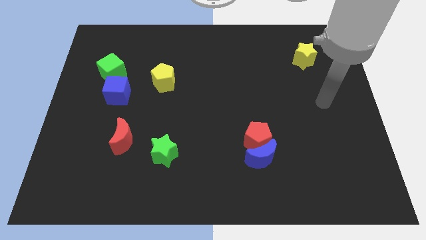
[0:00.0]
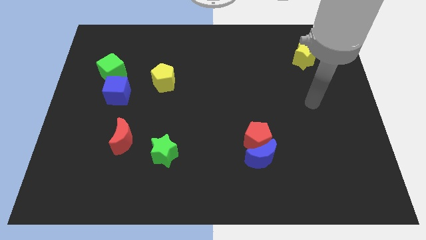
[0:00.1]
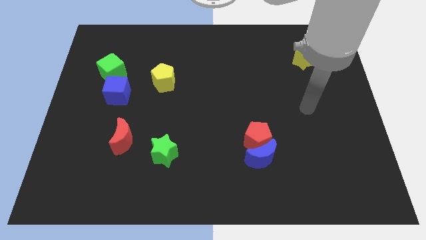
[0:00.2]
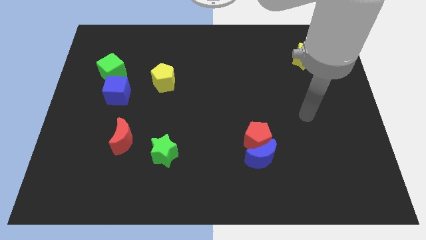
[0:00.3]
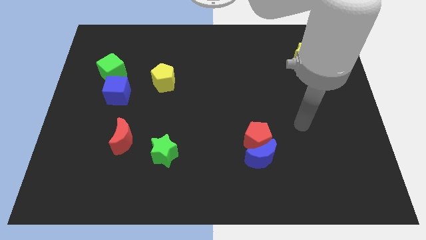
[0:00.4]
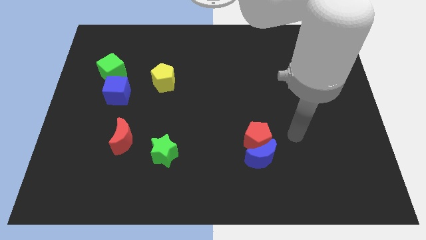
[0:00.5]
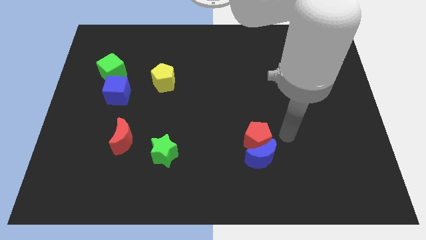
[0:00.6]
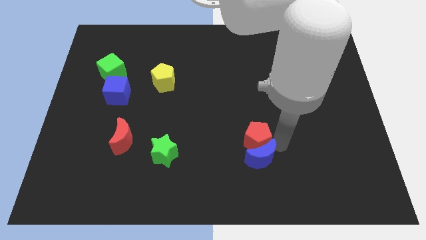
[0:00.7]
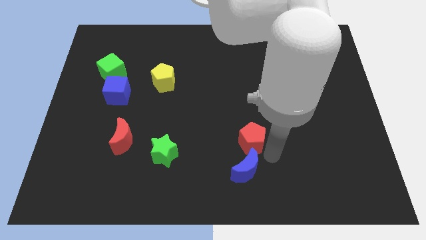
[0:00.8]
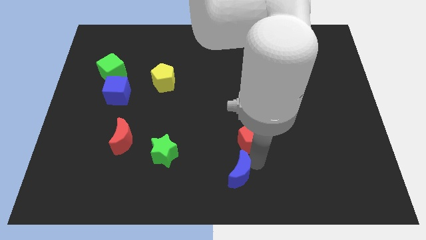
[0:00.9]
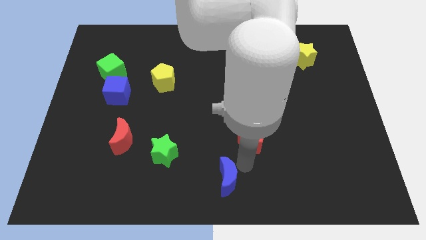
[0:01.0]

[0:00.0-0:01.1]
pull the red pentagon apart from the blue moon

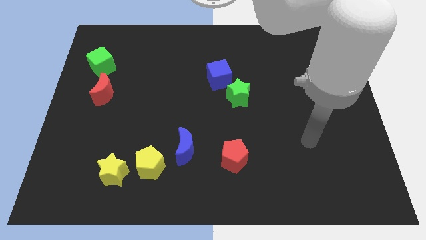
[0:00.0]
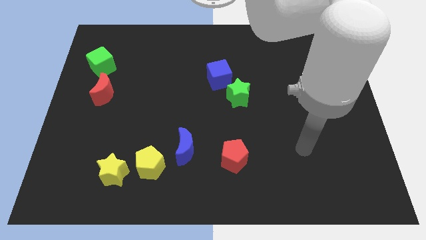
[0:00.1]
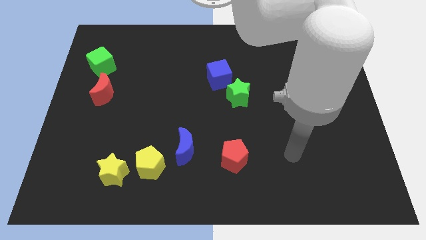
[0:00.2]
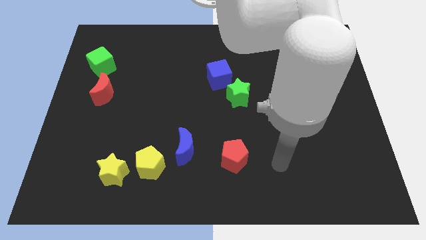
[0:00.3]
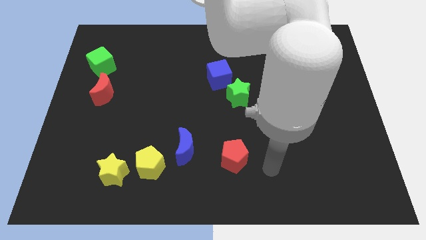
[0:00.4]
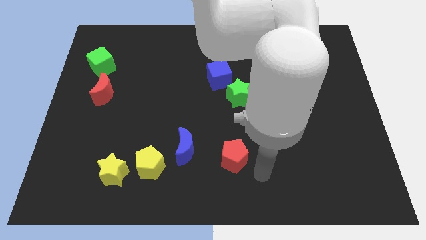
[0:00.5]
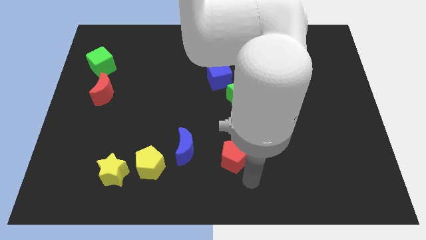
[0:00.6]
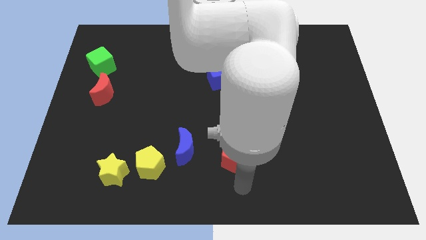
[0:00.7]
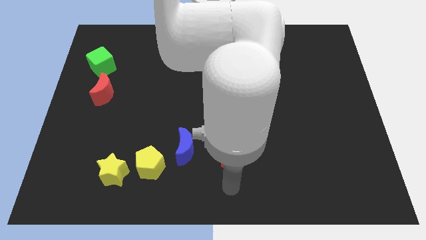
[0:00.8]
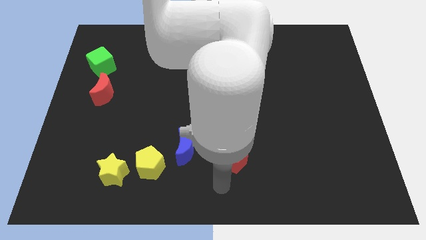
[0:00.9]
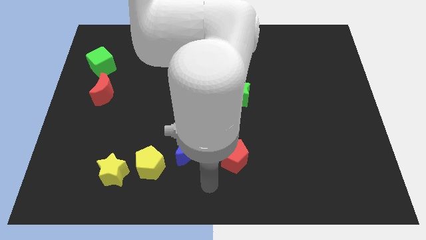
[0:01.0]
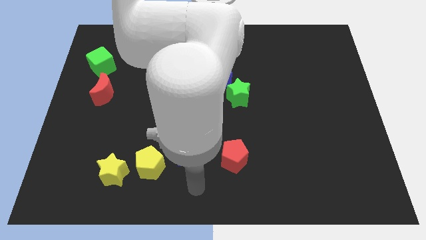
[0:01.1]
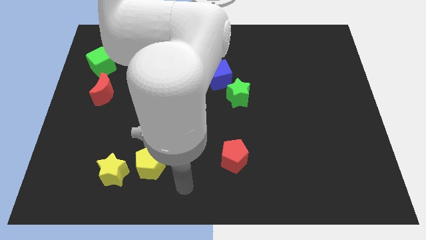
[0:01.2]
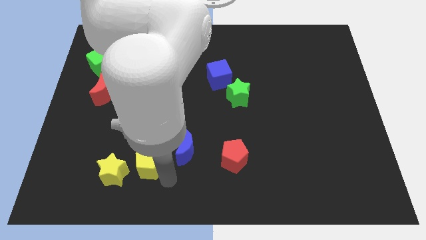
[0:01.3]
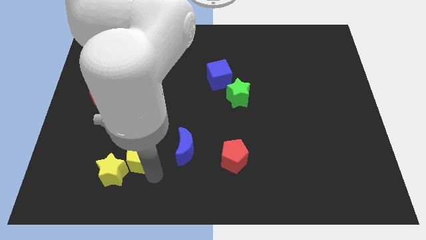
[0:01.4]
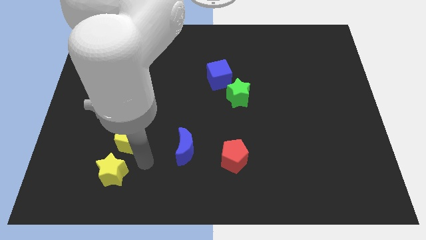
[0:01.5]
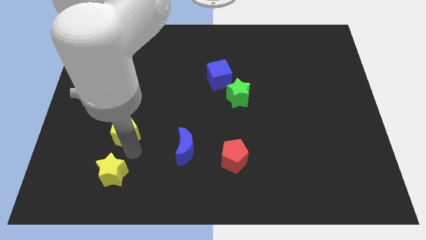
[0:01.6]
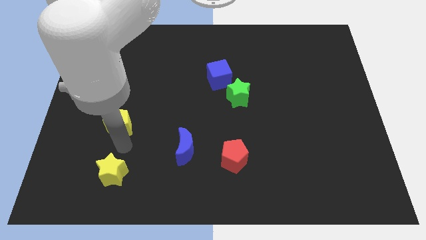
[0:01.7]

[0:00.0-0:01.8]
move the yellow star away from the yellow pentagon

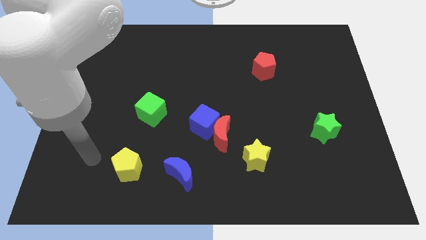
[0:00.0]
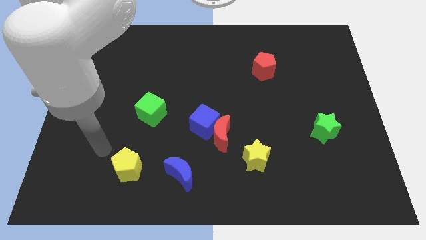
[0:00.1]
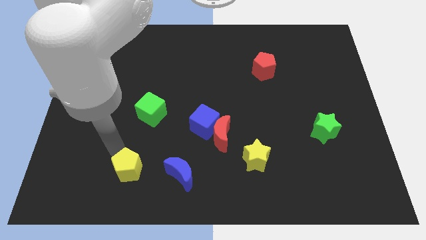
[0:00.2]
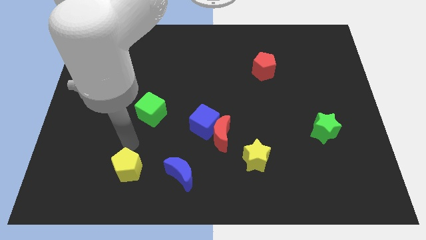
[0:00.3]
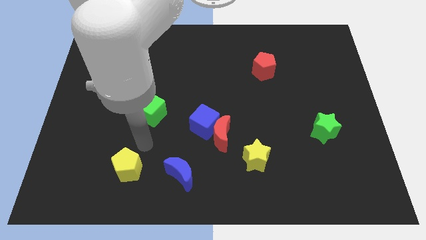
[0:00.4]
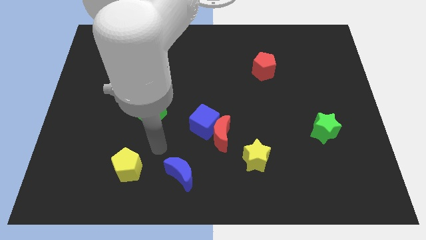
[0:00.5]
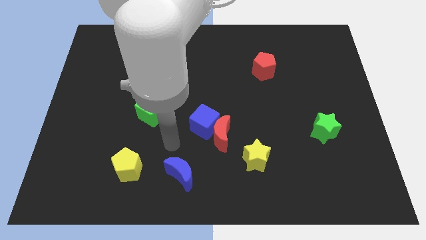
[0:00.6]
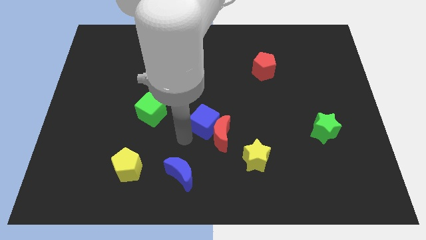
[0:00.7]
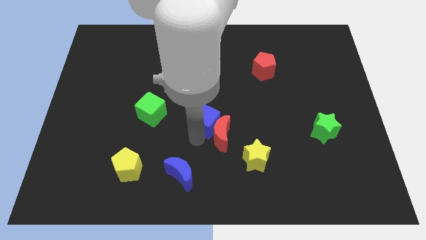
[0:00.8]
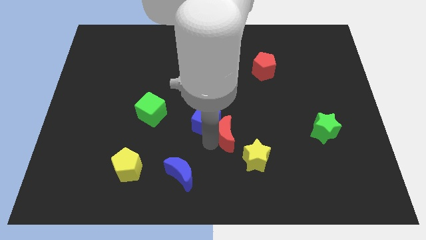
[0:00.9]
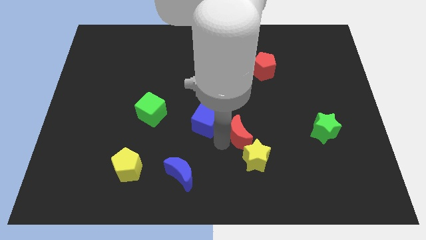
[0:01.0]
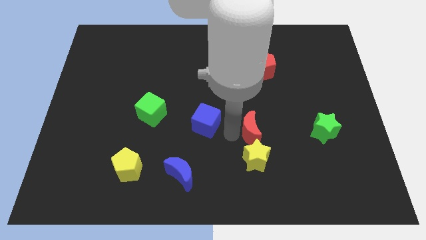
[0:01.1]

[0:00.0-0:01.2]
pull the blue cube apart from the red moon

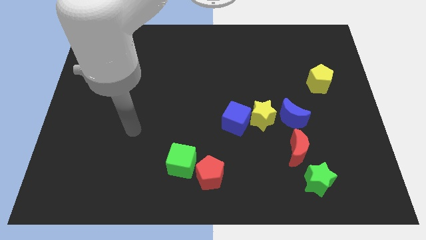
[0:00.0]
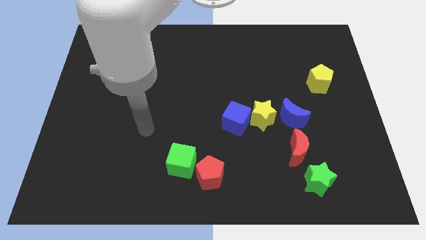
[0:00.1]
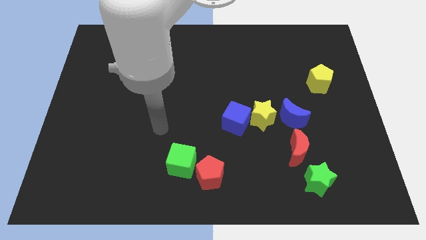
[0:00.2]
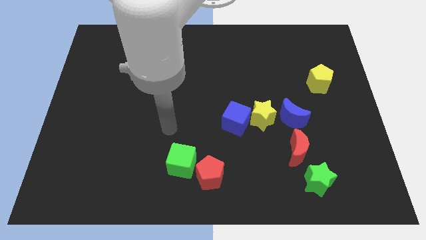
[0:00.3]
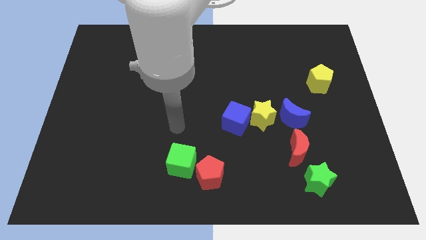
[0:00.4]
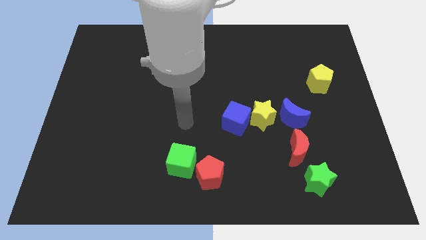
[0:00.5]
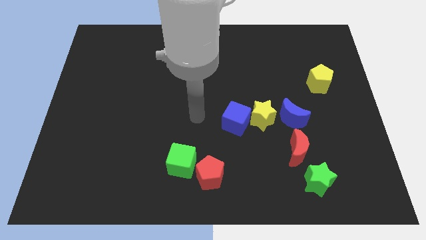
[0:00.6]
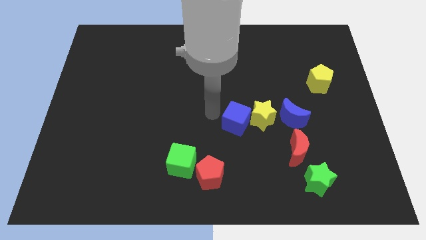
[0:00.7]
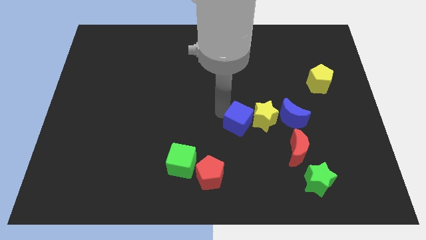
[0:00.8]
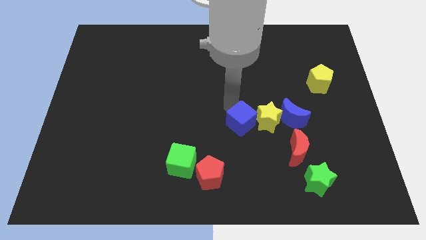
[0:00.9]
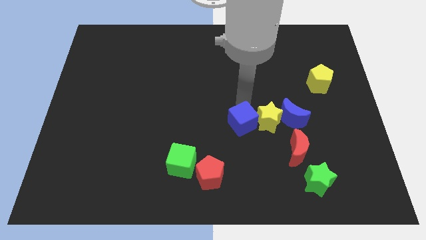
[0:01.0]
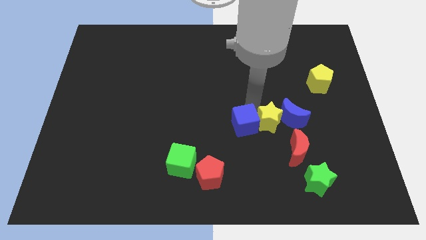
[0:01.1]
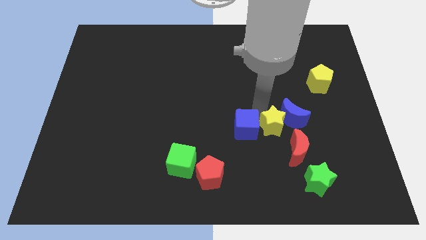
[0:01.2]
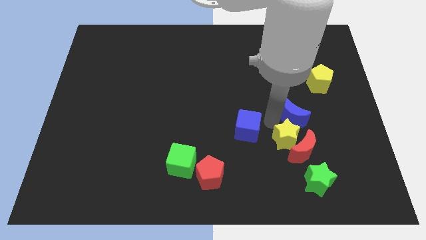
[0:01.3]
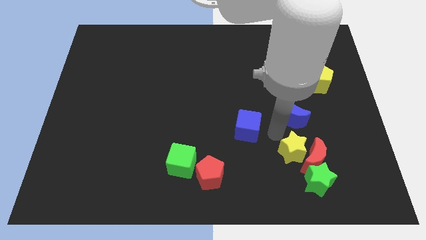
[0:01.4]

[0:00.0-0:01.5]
pull the blue cube apart from the yellow star

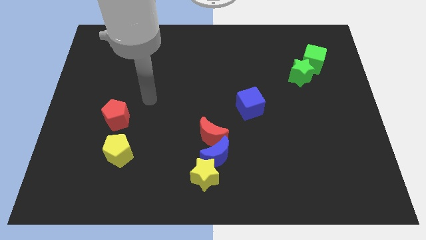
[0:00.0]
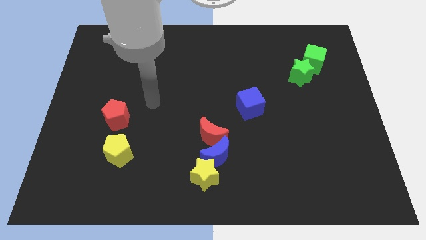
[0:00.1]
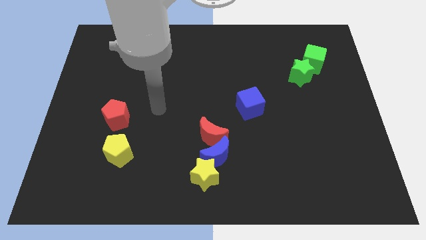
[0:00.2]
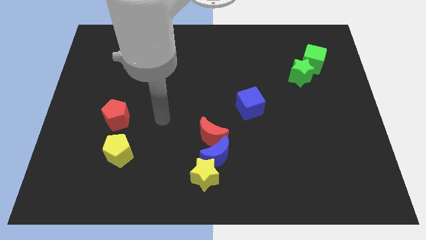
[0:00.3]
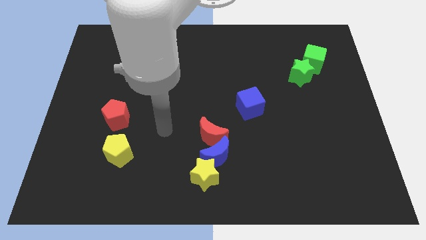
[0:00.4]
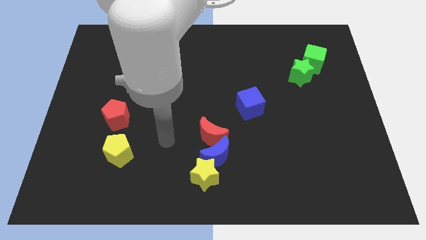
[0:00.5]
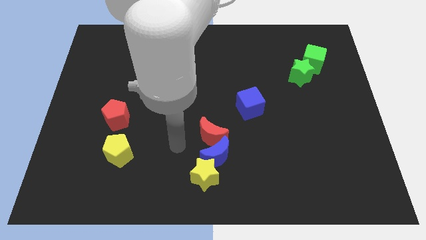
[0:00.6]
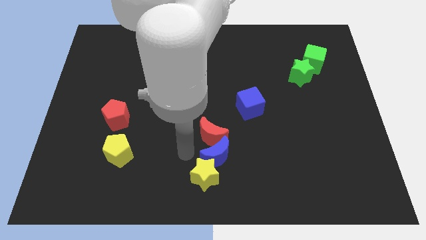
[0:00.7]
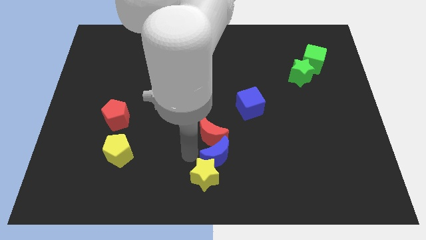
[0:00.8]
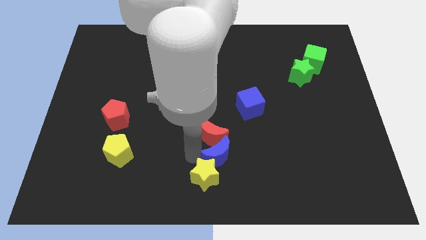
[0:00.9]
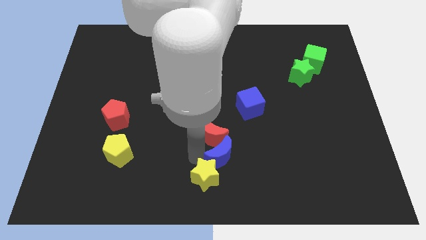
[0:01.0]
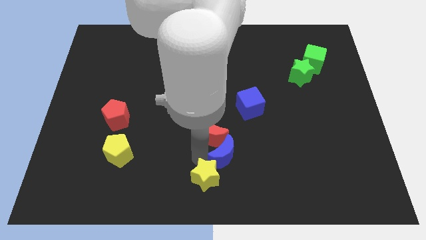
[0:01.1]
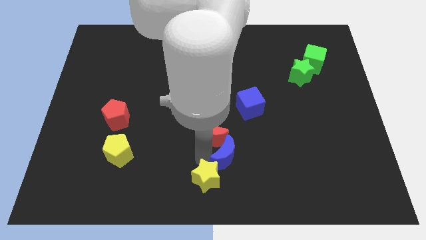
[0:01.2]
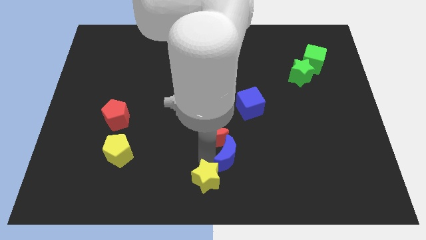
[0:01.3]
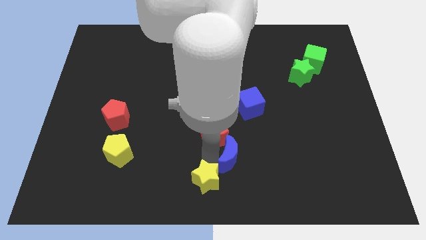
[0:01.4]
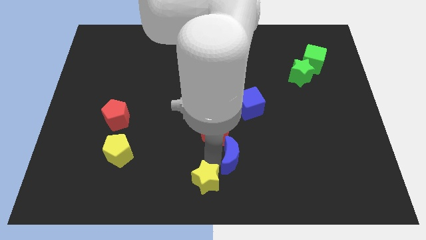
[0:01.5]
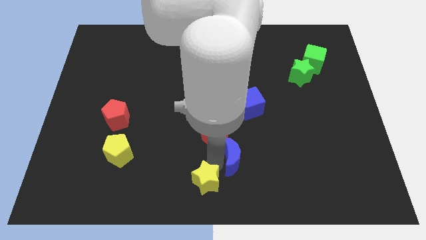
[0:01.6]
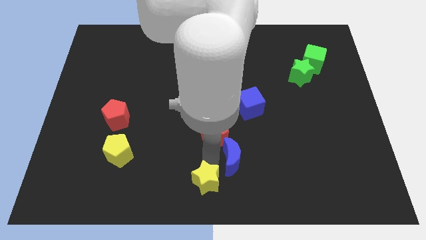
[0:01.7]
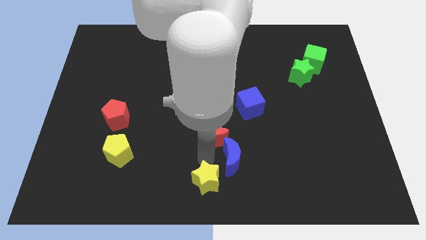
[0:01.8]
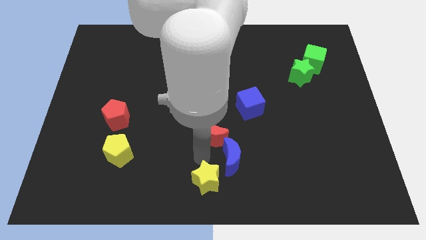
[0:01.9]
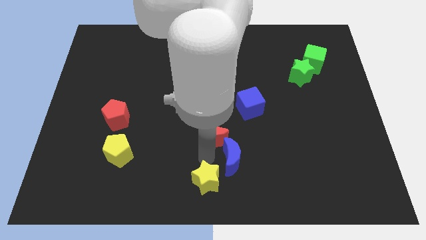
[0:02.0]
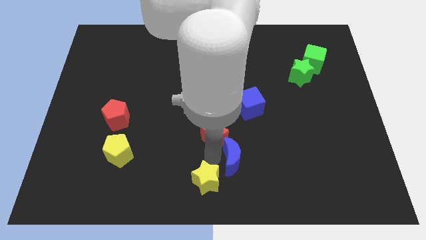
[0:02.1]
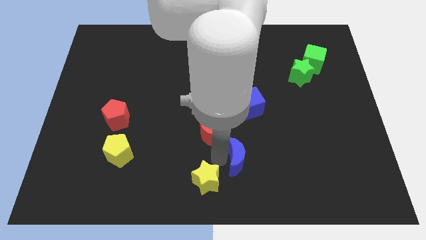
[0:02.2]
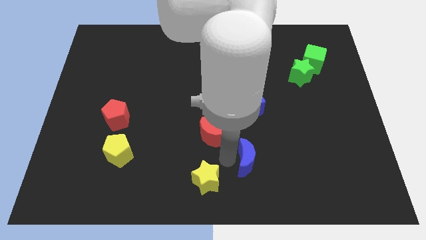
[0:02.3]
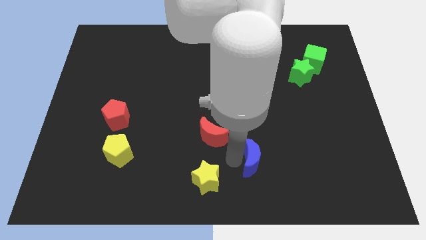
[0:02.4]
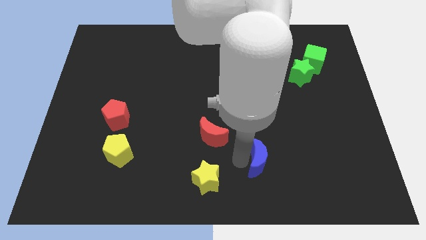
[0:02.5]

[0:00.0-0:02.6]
separate the blue moon from the red moon and yellow star

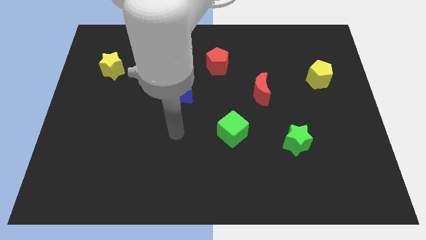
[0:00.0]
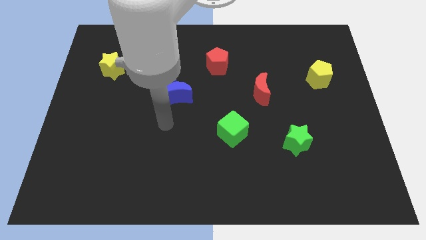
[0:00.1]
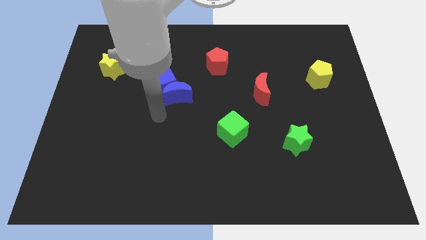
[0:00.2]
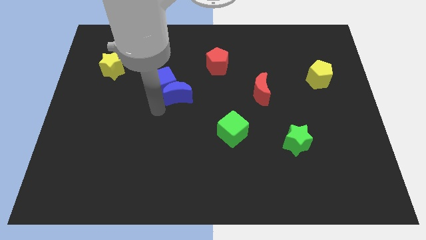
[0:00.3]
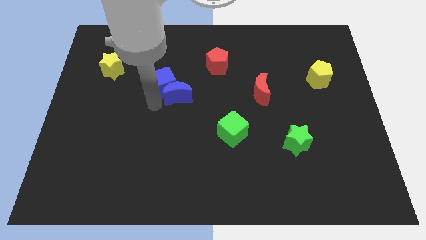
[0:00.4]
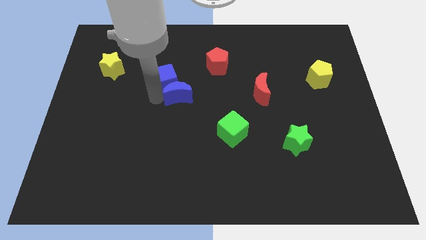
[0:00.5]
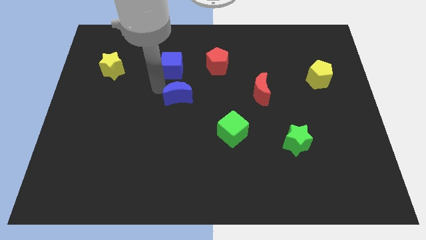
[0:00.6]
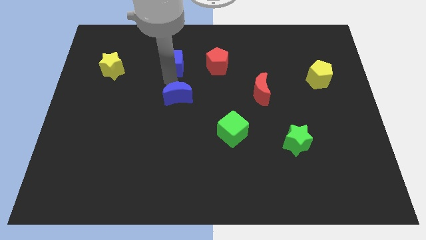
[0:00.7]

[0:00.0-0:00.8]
separate the blue moon from the blue cube

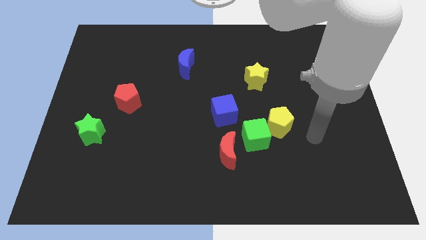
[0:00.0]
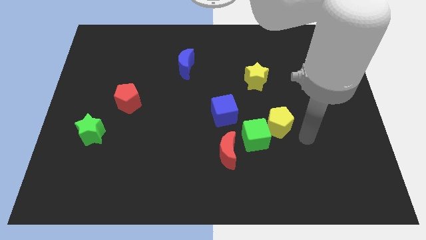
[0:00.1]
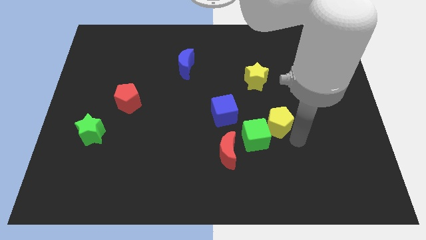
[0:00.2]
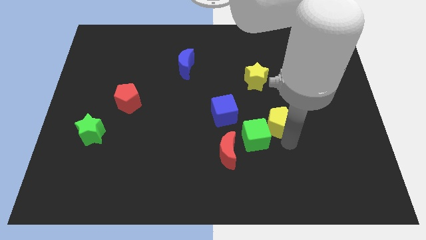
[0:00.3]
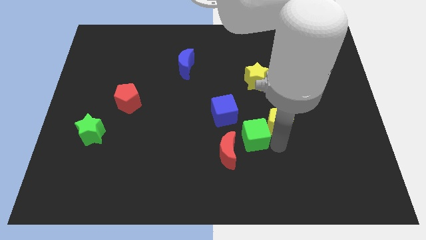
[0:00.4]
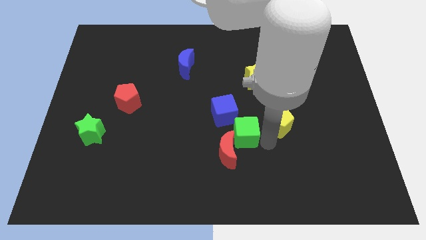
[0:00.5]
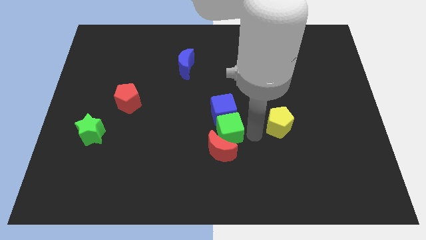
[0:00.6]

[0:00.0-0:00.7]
move the yellow pentagon away from the green cube
